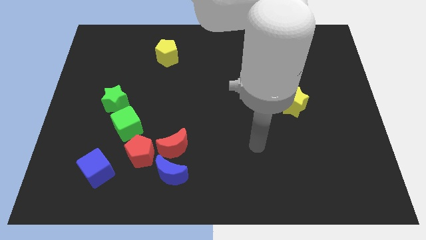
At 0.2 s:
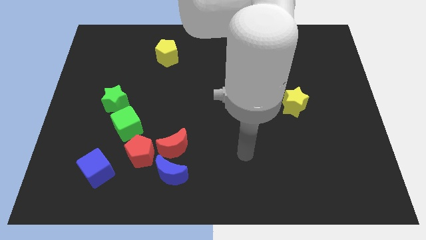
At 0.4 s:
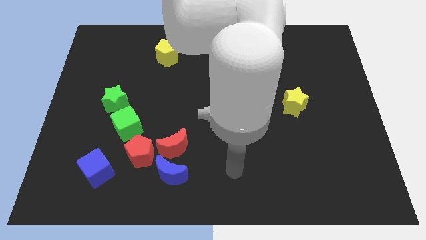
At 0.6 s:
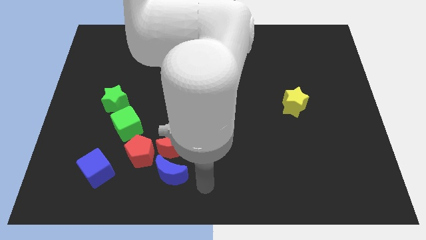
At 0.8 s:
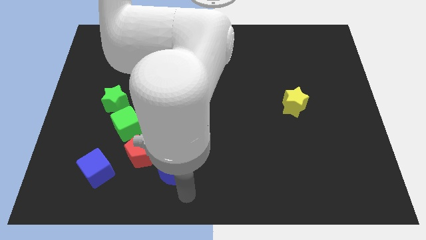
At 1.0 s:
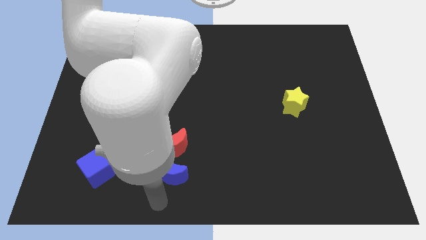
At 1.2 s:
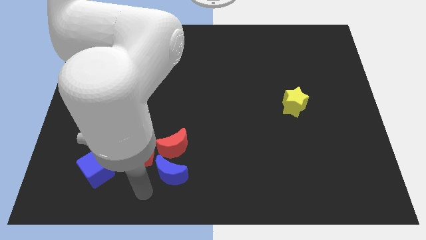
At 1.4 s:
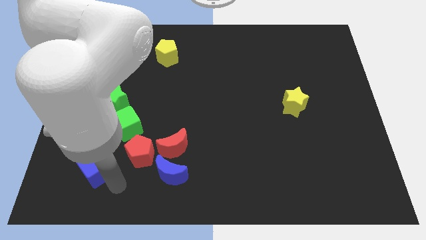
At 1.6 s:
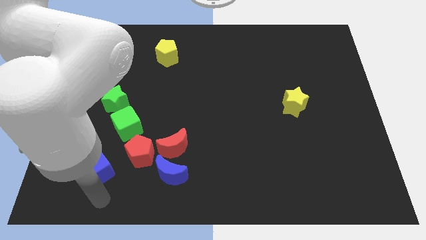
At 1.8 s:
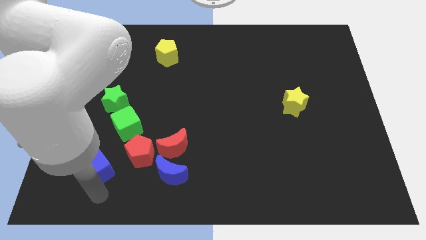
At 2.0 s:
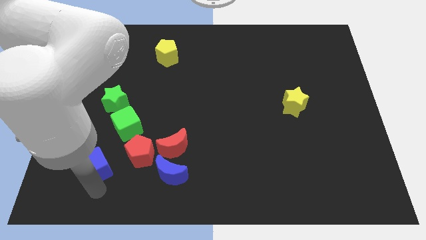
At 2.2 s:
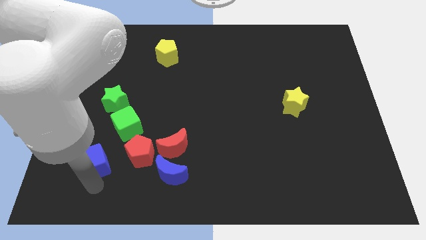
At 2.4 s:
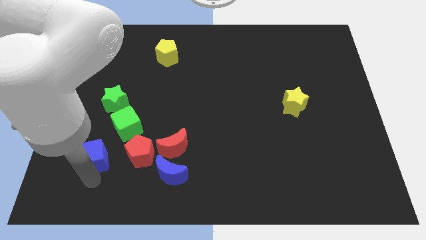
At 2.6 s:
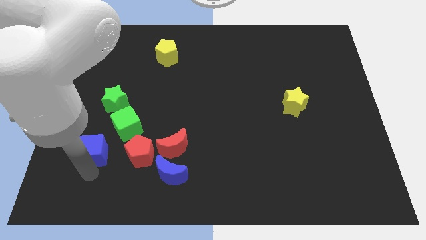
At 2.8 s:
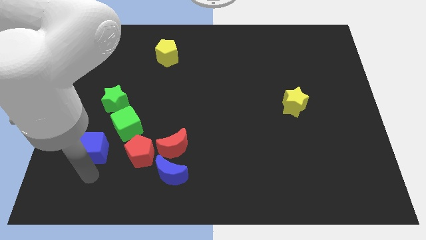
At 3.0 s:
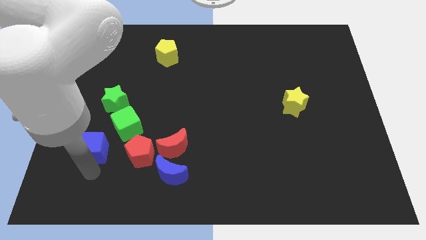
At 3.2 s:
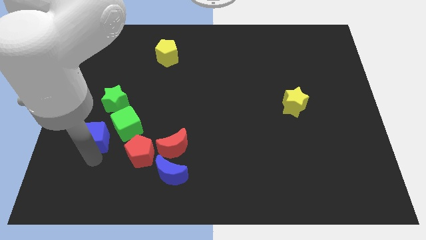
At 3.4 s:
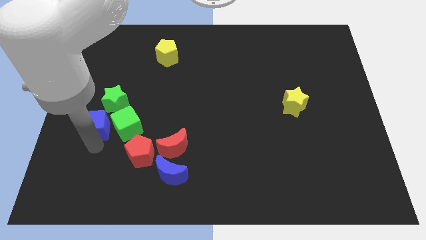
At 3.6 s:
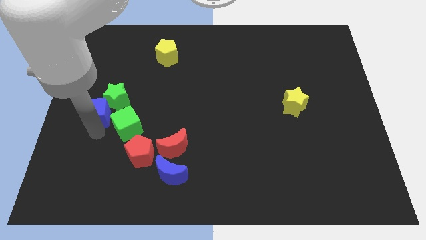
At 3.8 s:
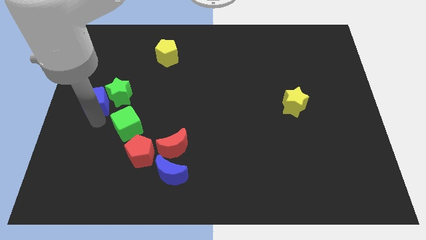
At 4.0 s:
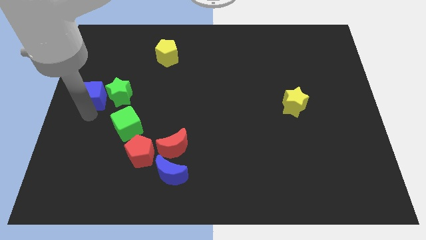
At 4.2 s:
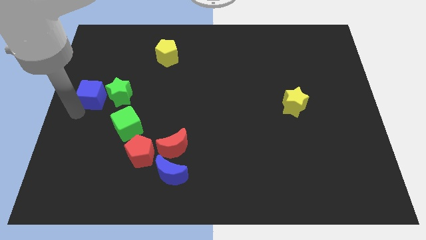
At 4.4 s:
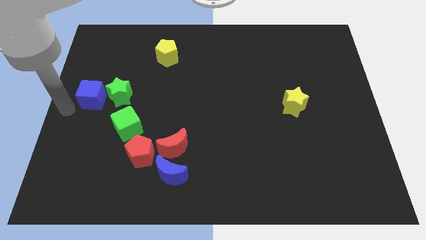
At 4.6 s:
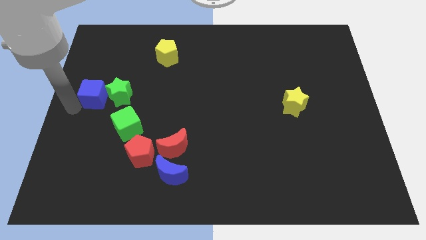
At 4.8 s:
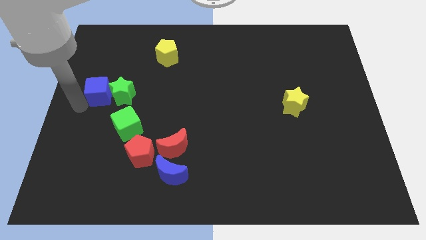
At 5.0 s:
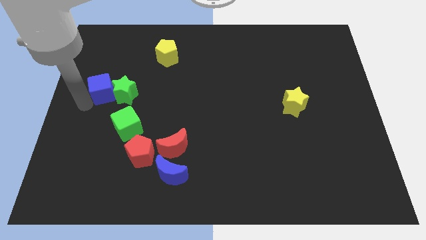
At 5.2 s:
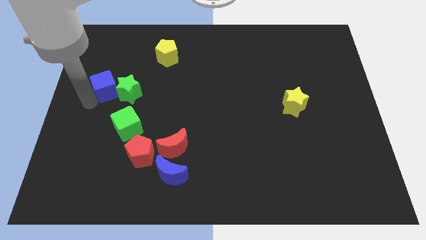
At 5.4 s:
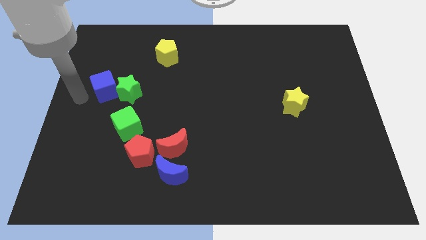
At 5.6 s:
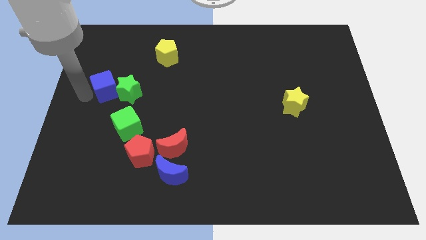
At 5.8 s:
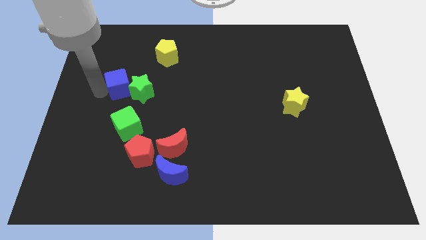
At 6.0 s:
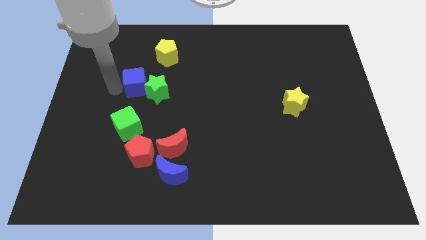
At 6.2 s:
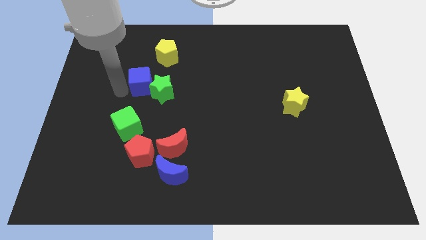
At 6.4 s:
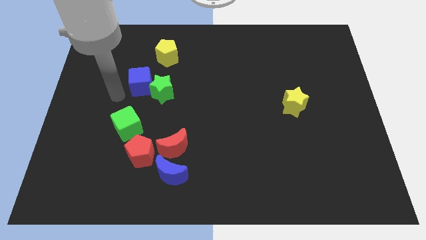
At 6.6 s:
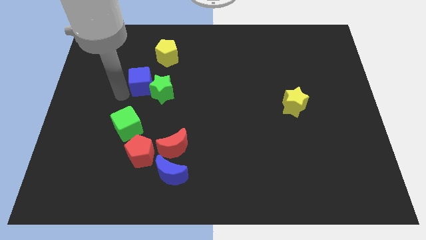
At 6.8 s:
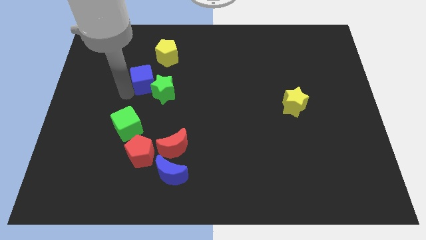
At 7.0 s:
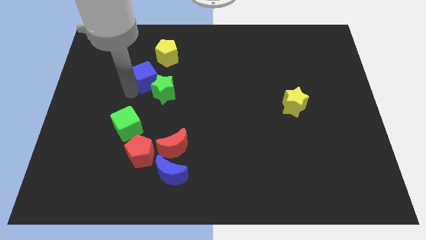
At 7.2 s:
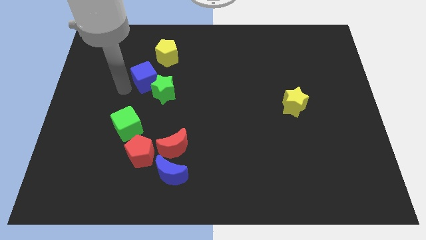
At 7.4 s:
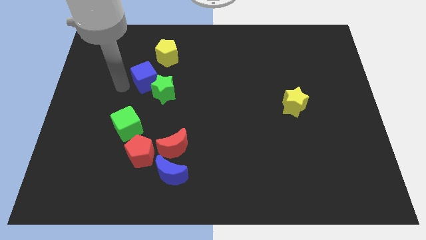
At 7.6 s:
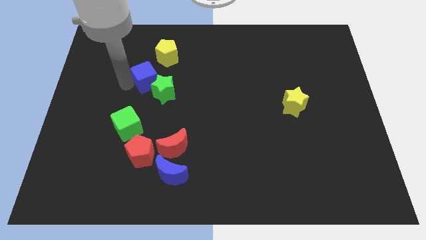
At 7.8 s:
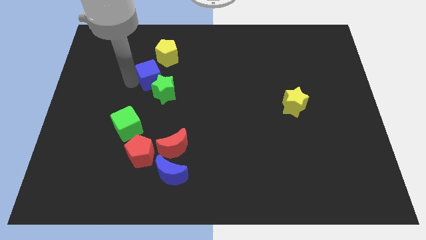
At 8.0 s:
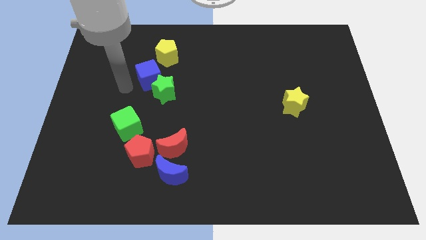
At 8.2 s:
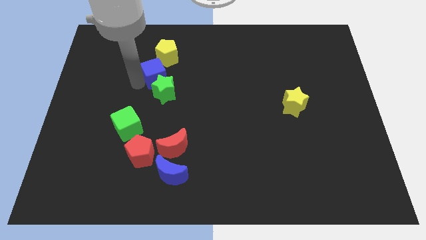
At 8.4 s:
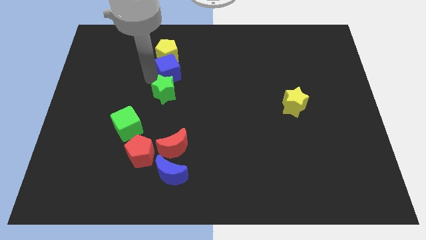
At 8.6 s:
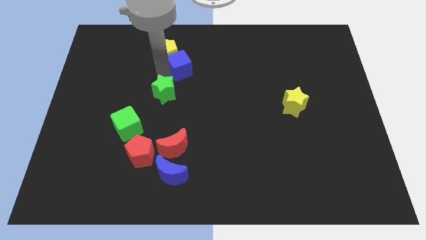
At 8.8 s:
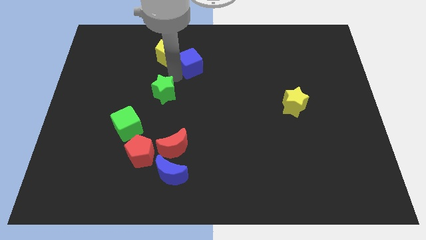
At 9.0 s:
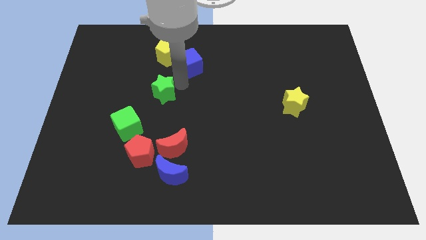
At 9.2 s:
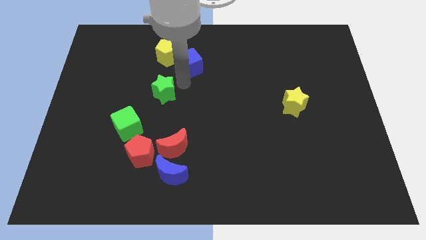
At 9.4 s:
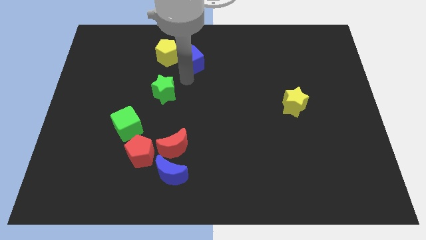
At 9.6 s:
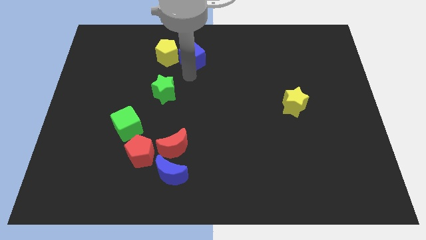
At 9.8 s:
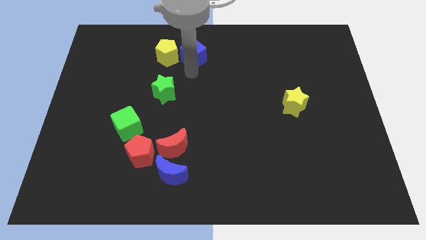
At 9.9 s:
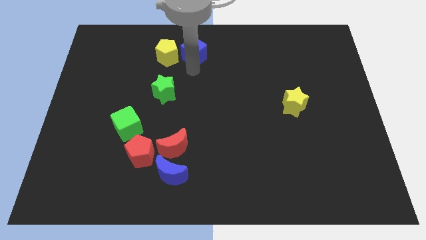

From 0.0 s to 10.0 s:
move the blue cube to the top

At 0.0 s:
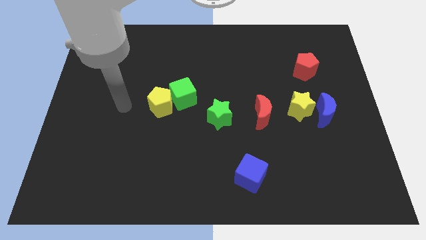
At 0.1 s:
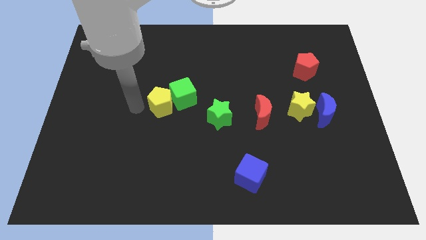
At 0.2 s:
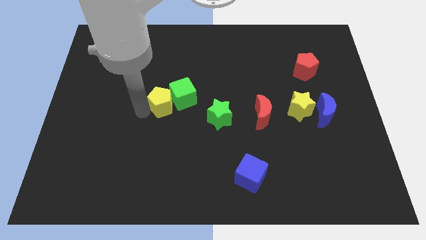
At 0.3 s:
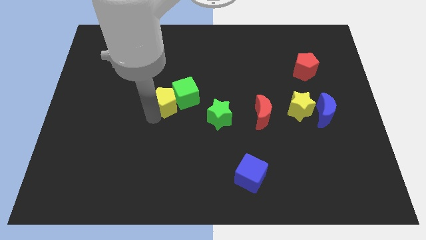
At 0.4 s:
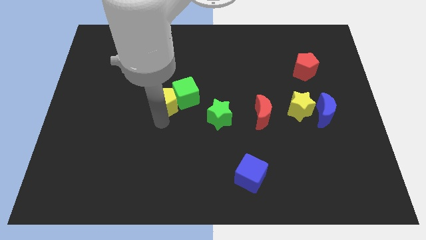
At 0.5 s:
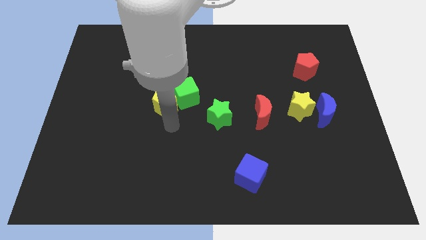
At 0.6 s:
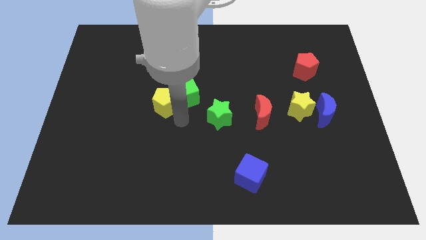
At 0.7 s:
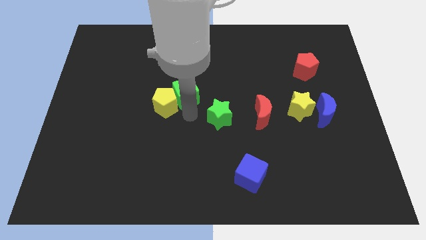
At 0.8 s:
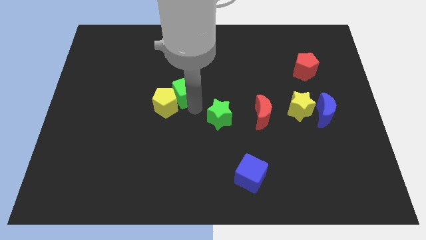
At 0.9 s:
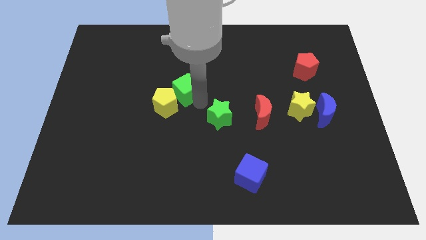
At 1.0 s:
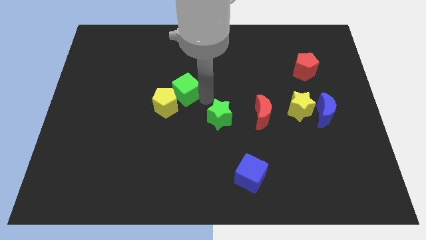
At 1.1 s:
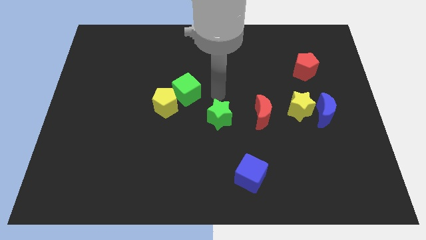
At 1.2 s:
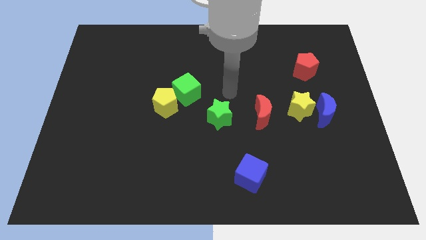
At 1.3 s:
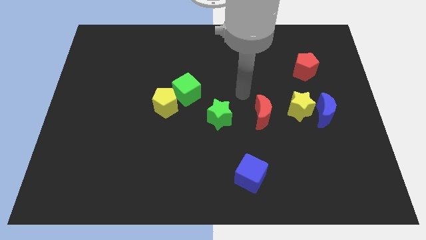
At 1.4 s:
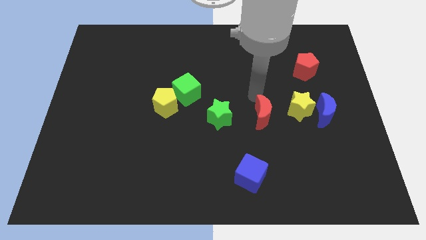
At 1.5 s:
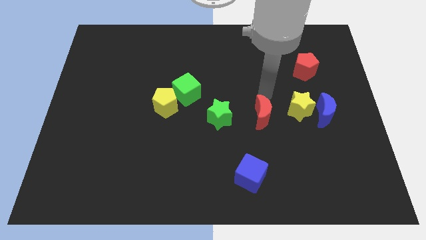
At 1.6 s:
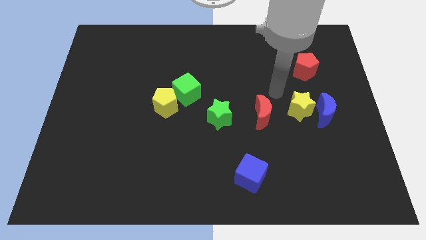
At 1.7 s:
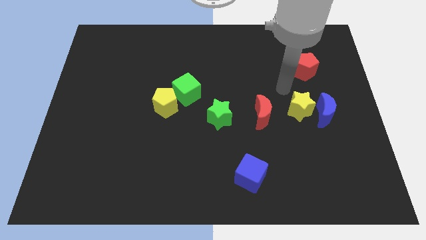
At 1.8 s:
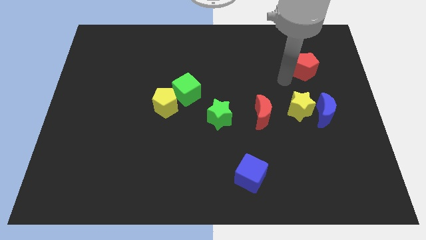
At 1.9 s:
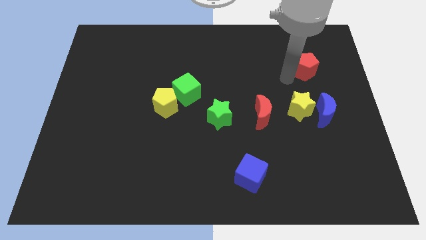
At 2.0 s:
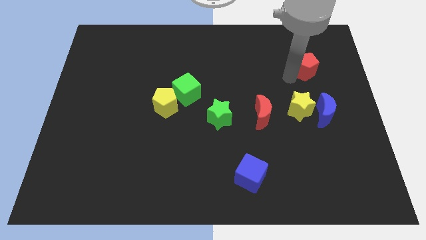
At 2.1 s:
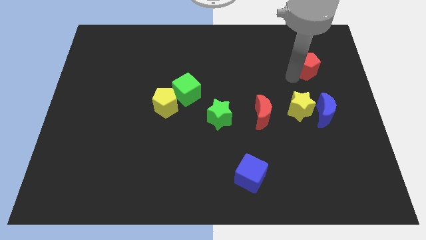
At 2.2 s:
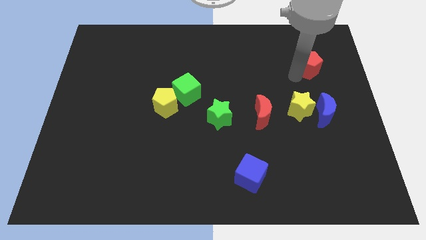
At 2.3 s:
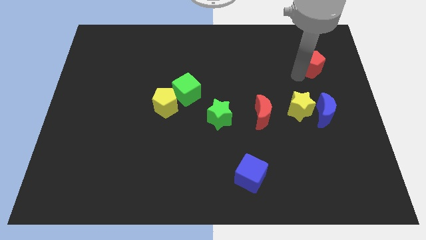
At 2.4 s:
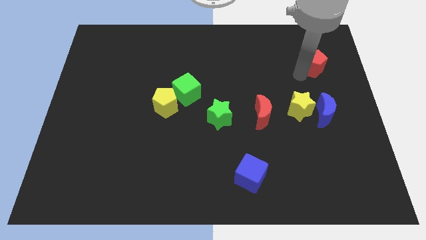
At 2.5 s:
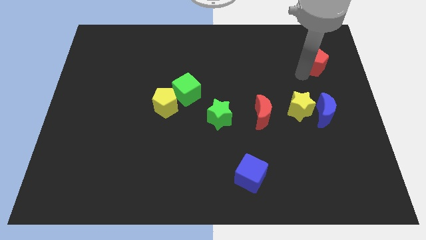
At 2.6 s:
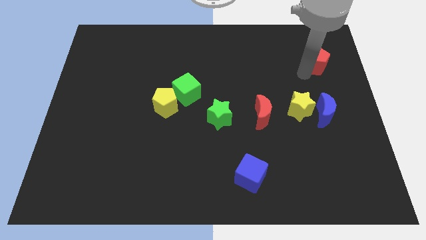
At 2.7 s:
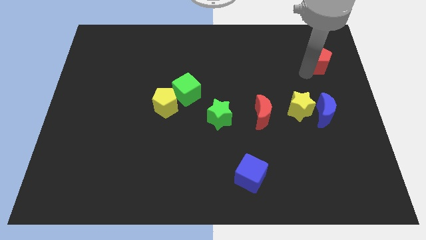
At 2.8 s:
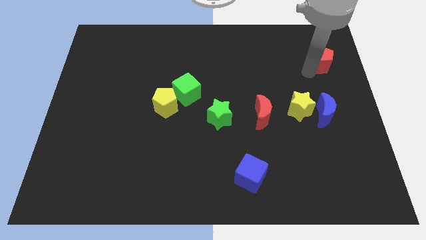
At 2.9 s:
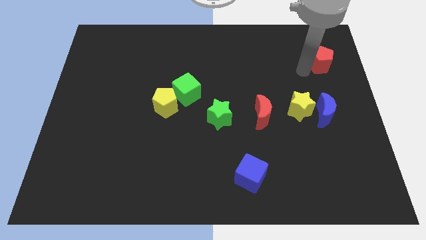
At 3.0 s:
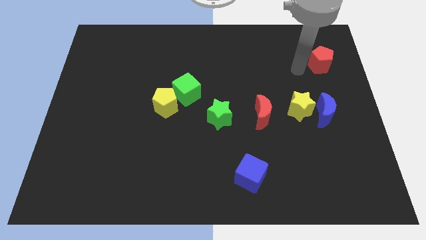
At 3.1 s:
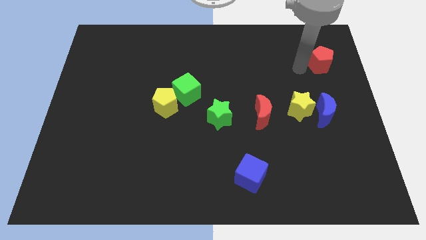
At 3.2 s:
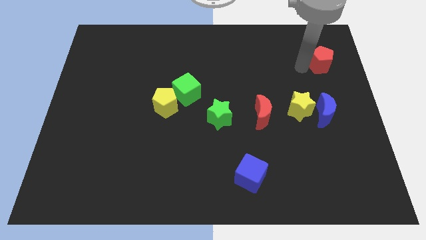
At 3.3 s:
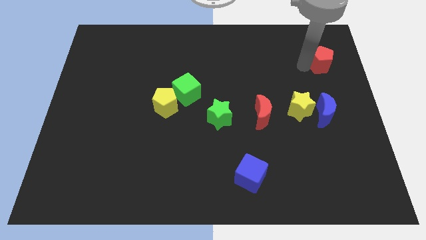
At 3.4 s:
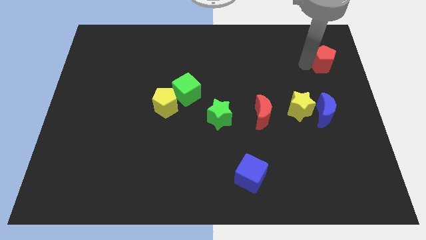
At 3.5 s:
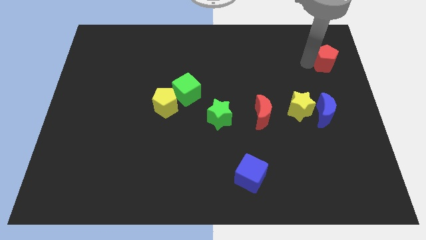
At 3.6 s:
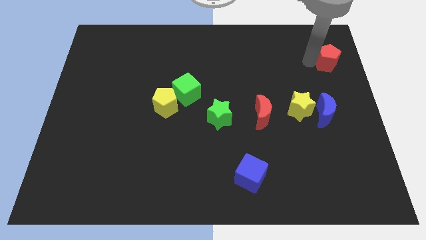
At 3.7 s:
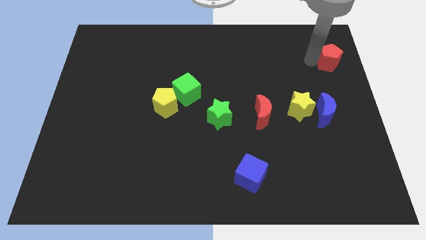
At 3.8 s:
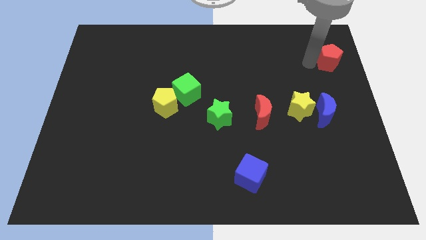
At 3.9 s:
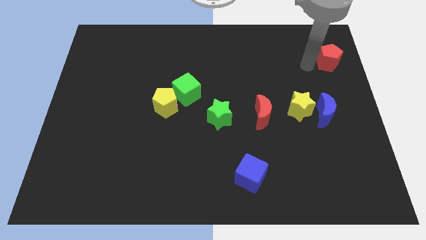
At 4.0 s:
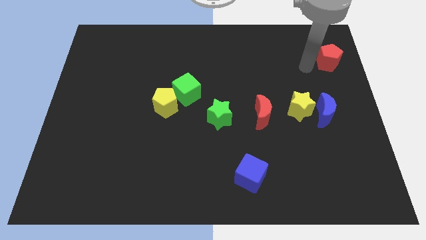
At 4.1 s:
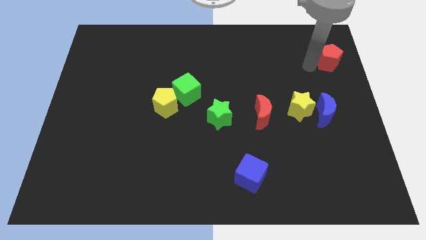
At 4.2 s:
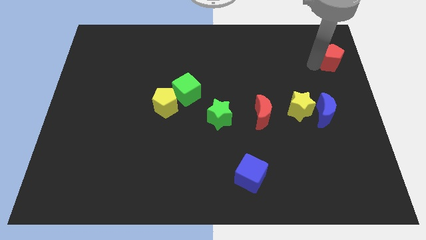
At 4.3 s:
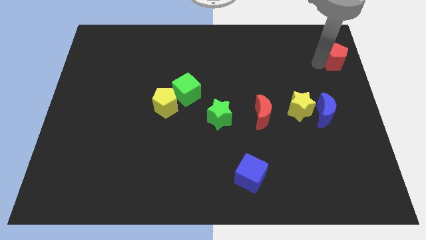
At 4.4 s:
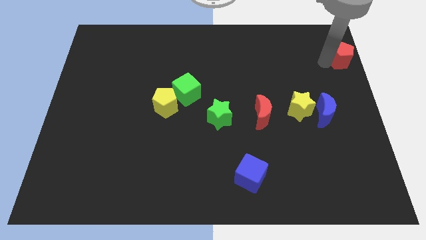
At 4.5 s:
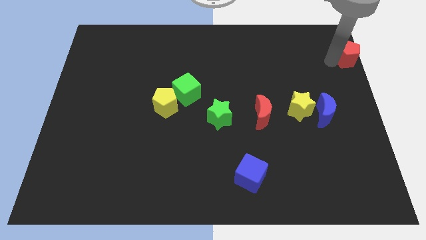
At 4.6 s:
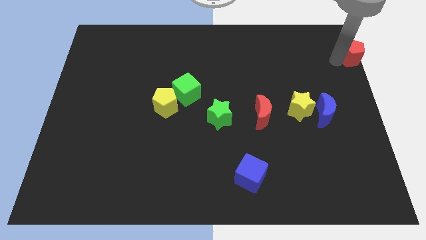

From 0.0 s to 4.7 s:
push the red pentagon to the top right of the board
